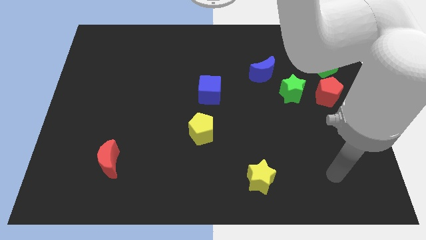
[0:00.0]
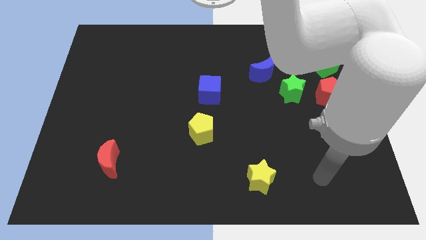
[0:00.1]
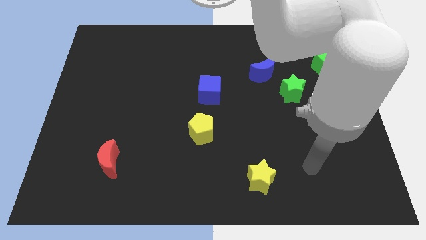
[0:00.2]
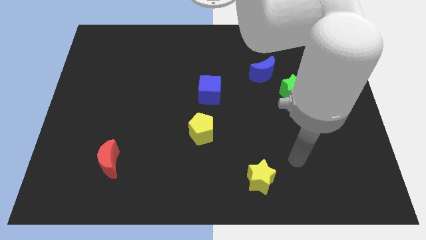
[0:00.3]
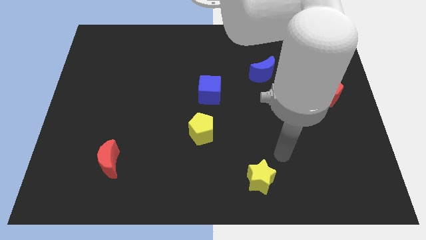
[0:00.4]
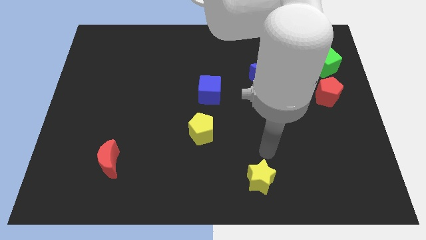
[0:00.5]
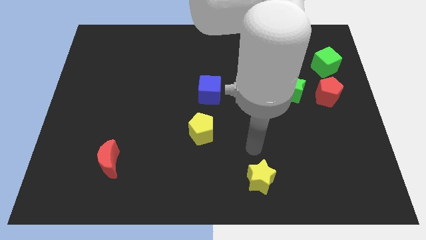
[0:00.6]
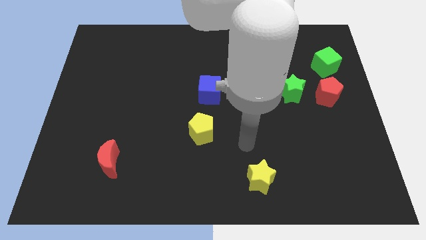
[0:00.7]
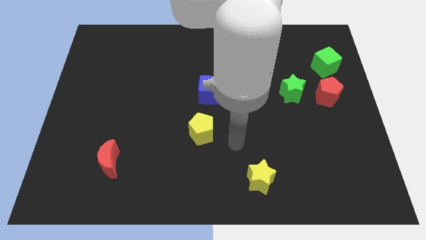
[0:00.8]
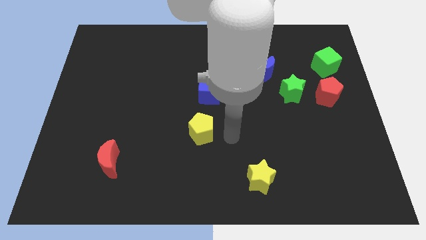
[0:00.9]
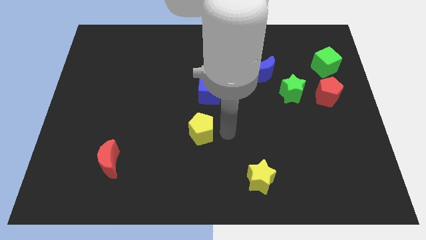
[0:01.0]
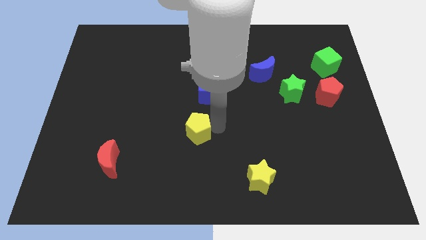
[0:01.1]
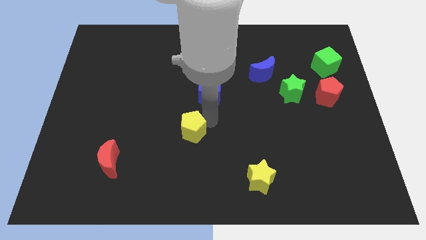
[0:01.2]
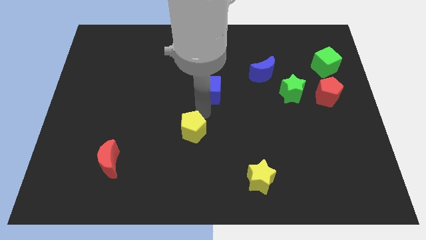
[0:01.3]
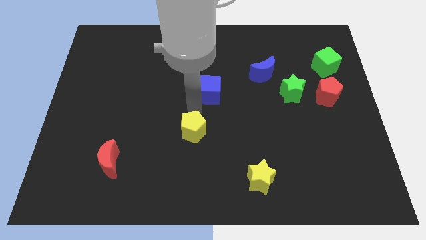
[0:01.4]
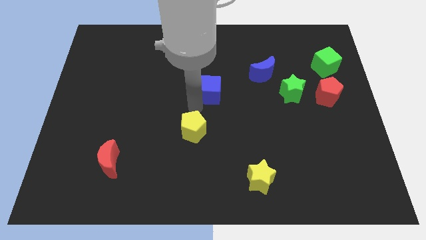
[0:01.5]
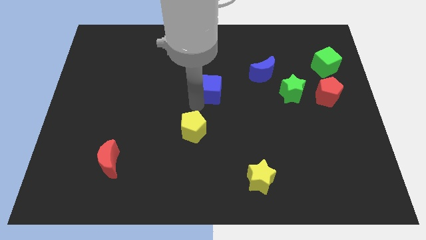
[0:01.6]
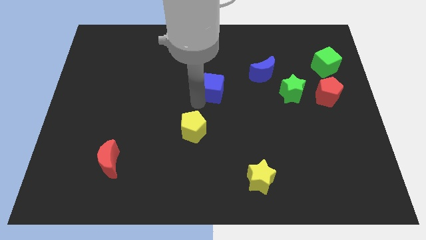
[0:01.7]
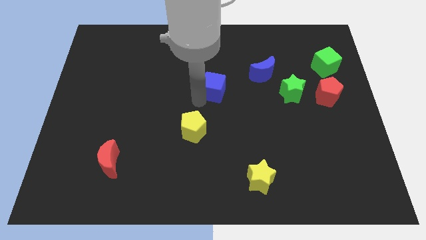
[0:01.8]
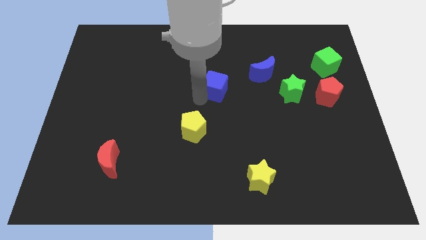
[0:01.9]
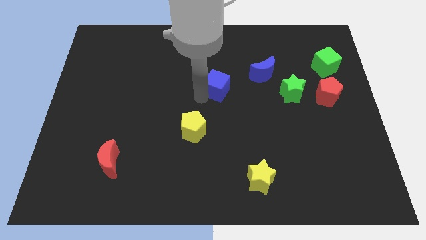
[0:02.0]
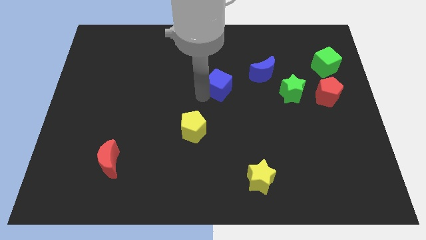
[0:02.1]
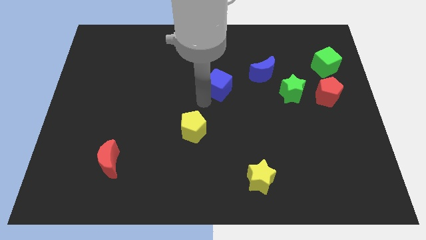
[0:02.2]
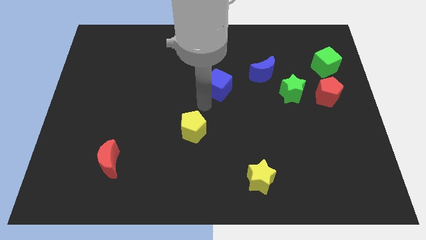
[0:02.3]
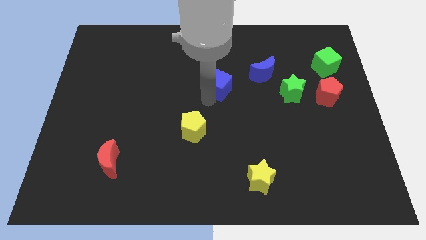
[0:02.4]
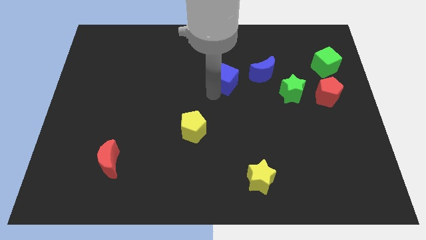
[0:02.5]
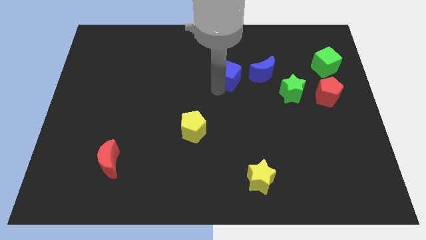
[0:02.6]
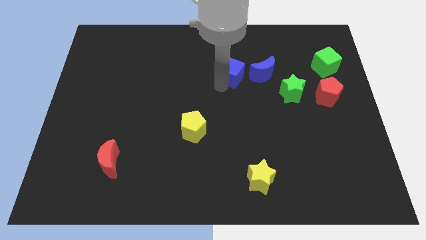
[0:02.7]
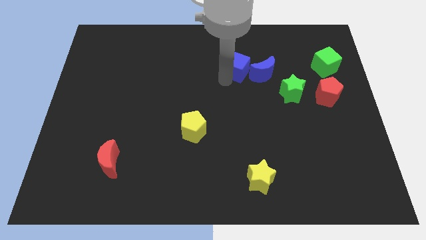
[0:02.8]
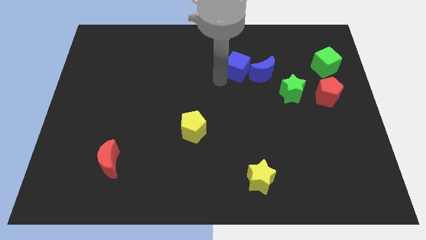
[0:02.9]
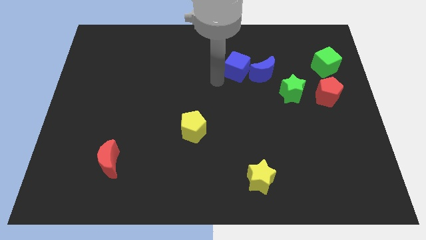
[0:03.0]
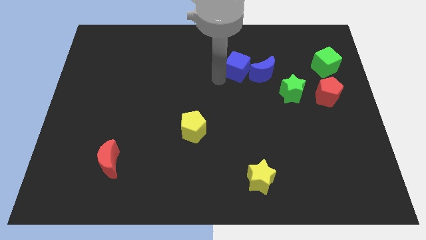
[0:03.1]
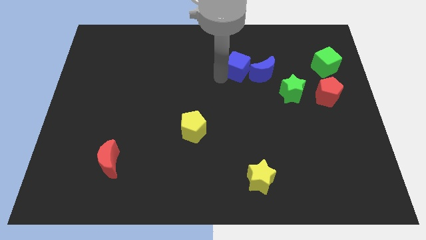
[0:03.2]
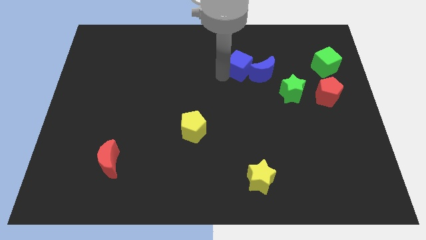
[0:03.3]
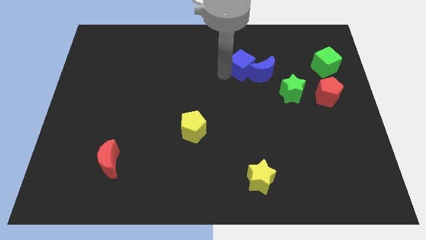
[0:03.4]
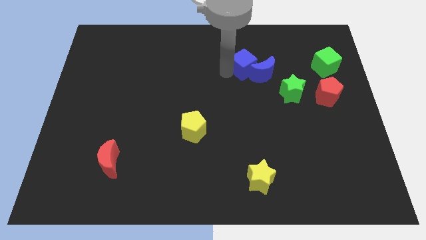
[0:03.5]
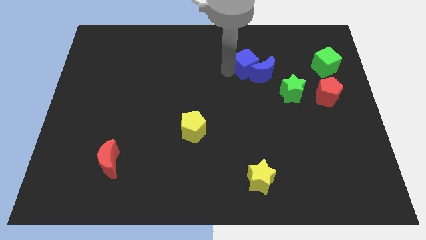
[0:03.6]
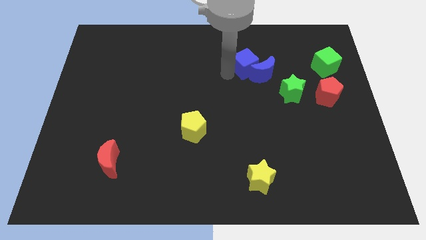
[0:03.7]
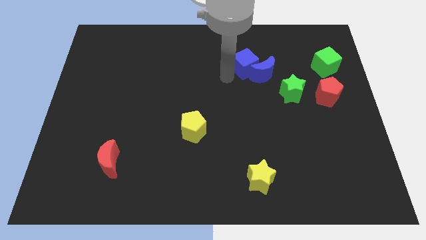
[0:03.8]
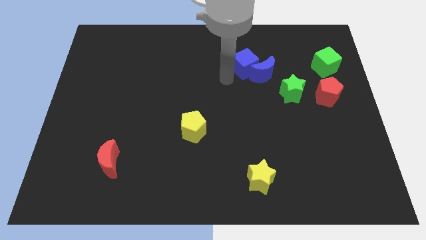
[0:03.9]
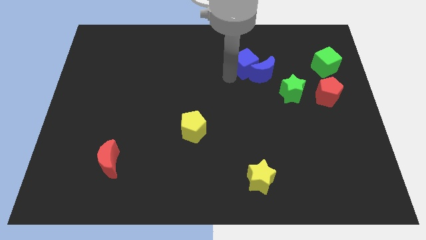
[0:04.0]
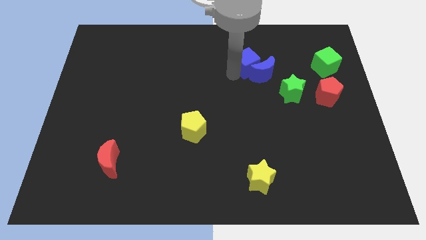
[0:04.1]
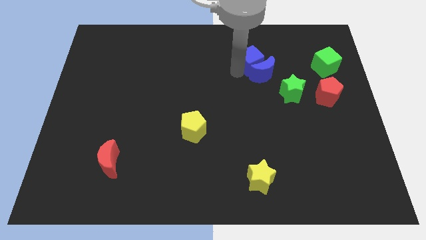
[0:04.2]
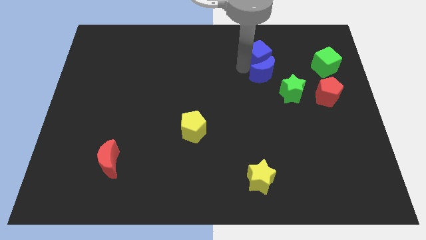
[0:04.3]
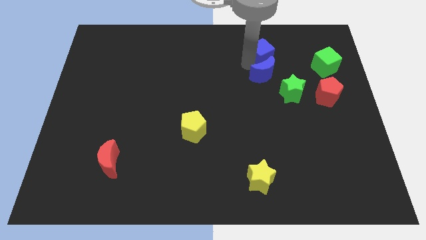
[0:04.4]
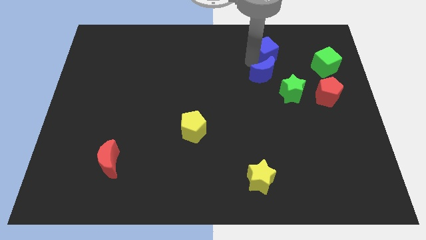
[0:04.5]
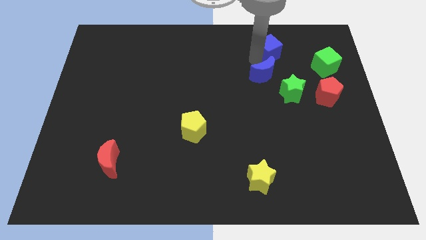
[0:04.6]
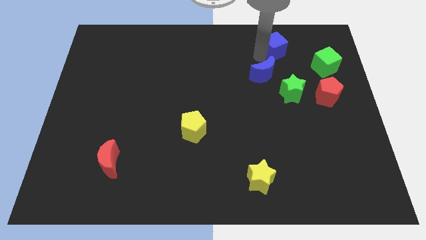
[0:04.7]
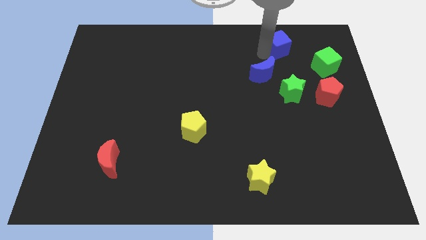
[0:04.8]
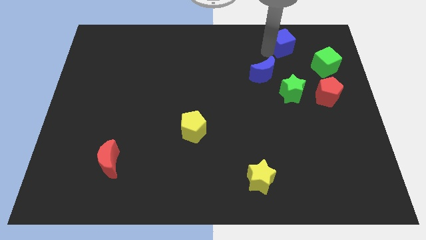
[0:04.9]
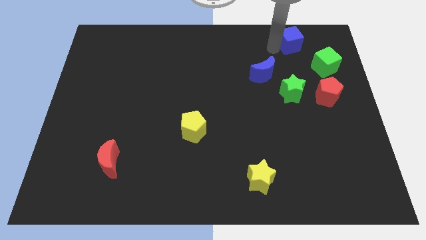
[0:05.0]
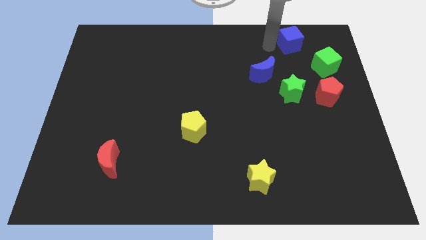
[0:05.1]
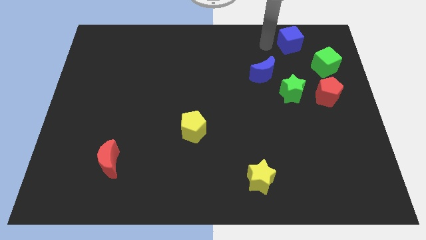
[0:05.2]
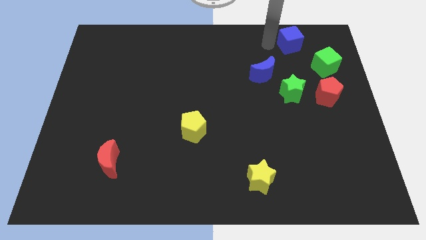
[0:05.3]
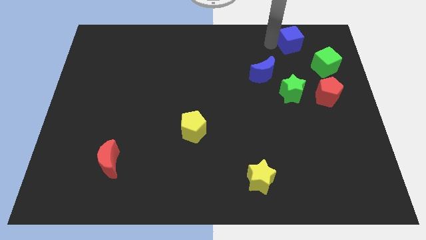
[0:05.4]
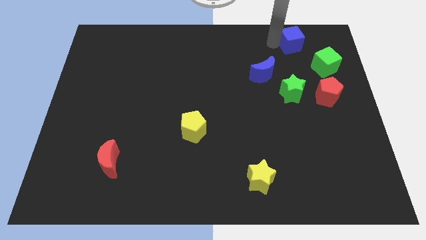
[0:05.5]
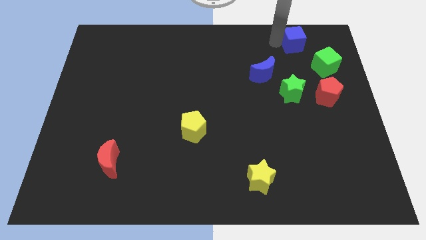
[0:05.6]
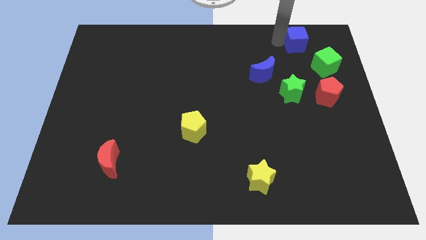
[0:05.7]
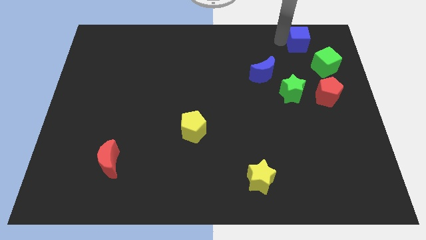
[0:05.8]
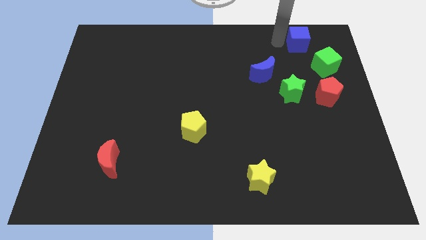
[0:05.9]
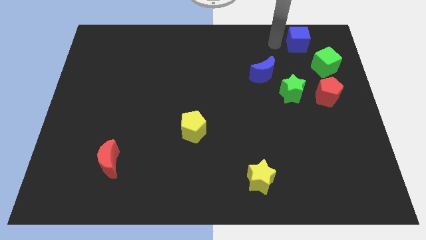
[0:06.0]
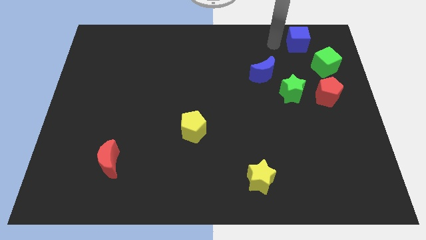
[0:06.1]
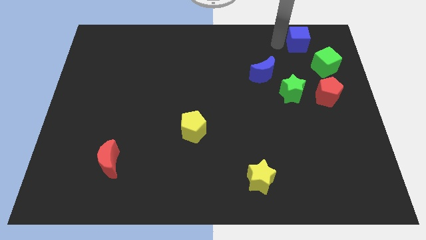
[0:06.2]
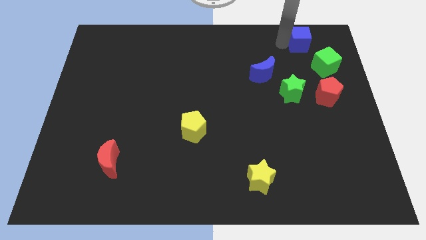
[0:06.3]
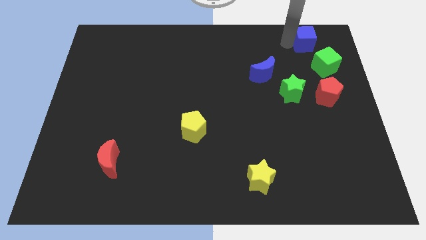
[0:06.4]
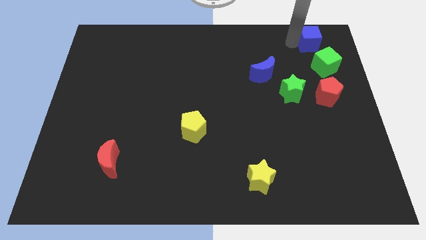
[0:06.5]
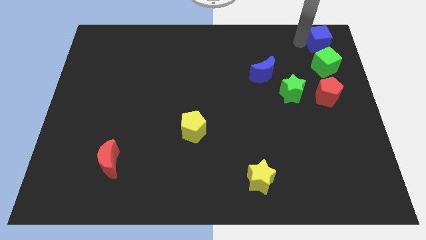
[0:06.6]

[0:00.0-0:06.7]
push the blue cube to the top right of the board
